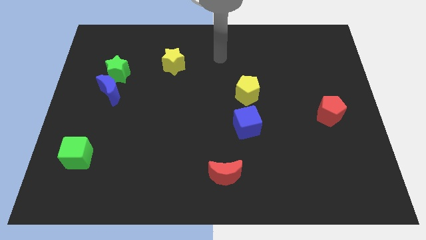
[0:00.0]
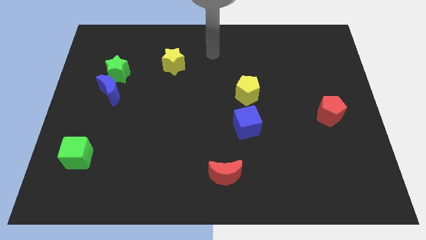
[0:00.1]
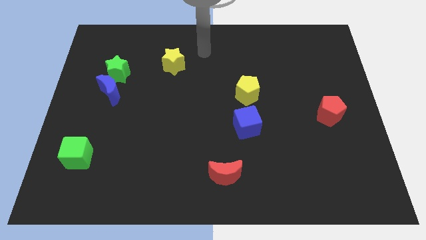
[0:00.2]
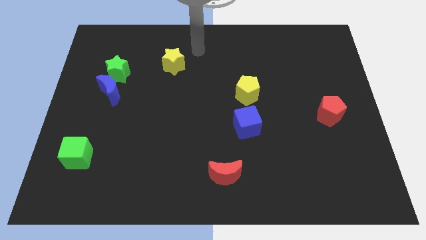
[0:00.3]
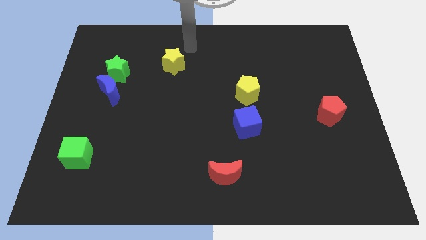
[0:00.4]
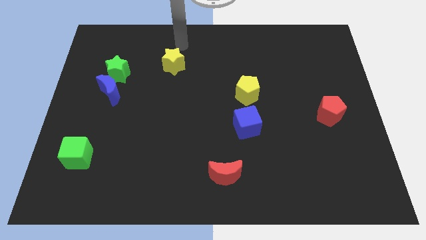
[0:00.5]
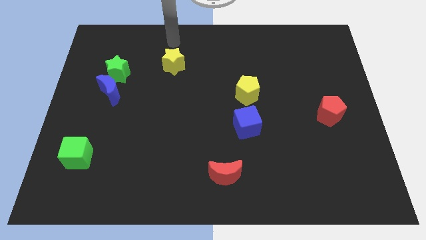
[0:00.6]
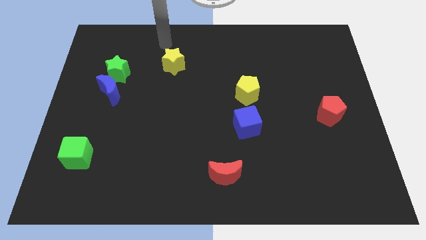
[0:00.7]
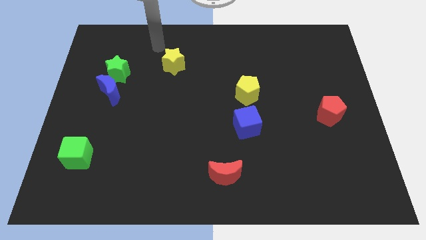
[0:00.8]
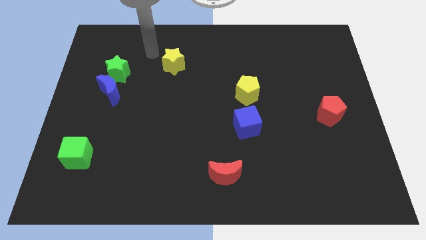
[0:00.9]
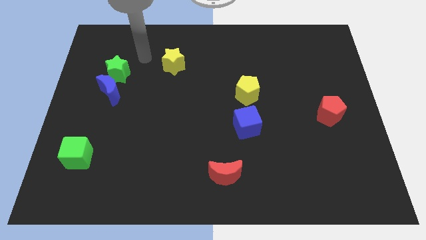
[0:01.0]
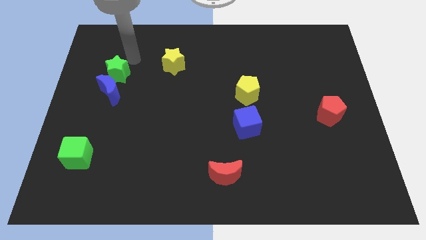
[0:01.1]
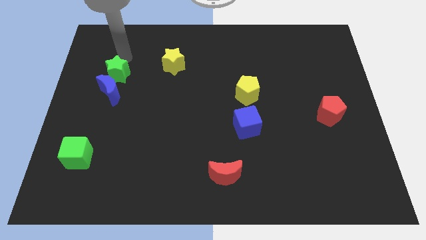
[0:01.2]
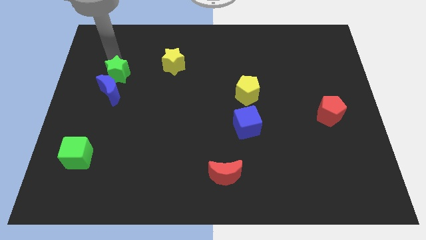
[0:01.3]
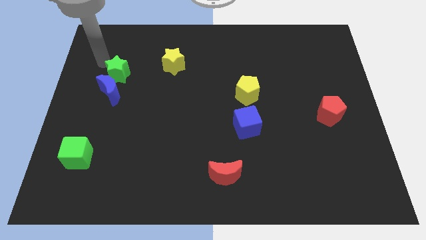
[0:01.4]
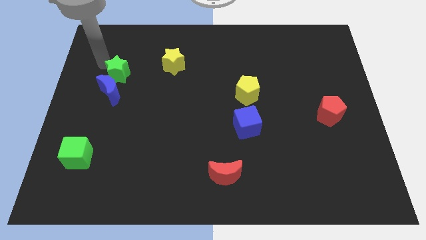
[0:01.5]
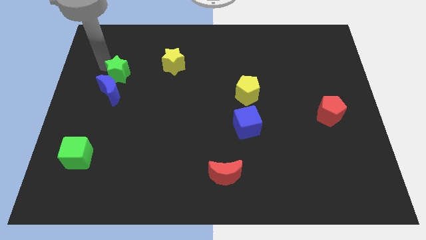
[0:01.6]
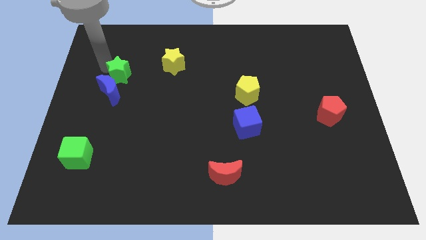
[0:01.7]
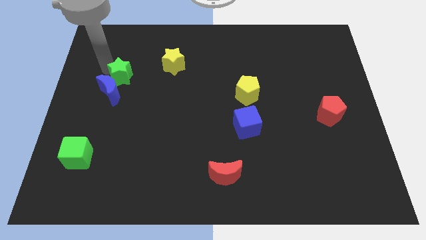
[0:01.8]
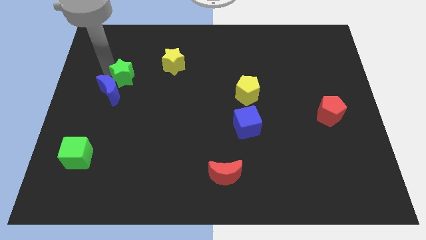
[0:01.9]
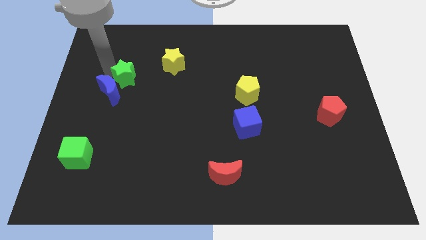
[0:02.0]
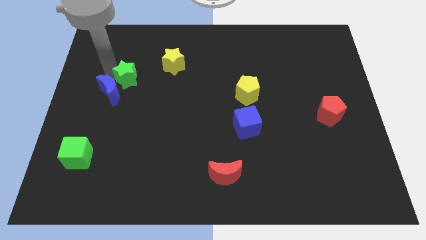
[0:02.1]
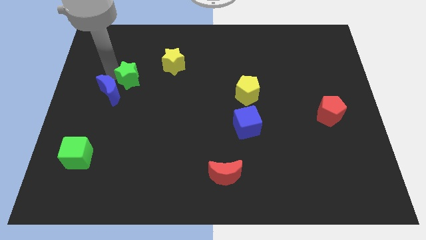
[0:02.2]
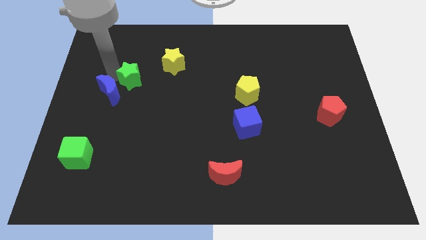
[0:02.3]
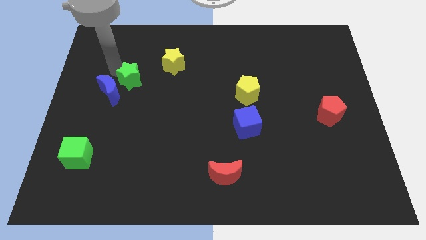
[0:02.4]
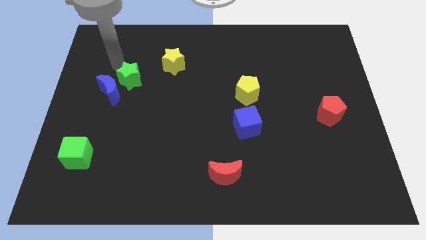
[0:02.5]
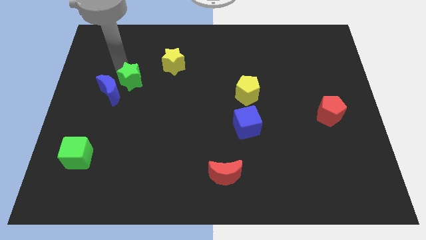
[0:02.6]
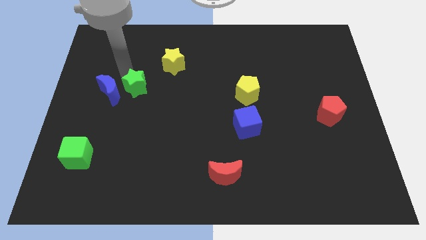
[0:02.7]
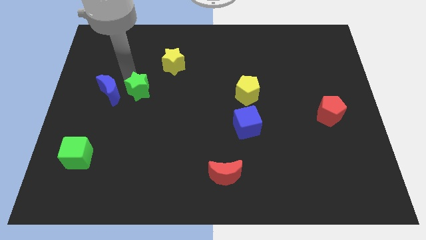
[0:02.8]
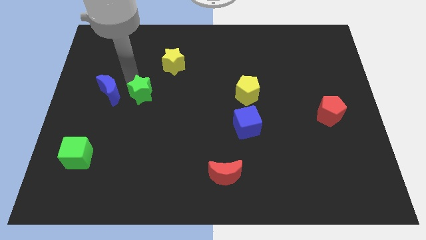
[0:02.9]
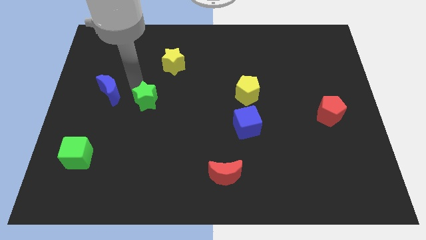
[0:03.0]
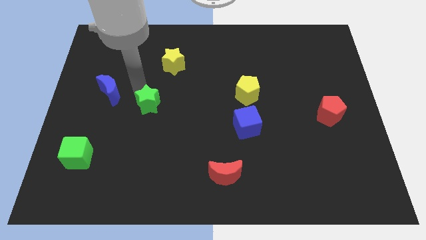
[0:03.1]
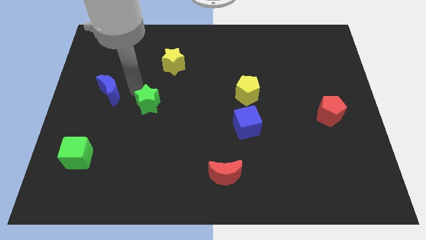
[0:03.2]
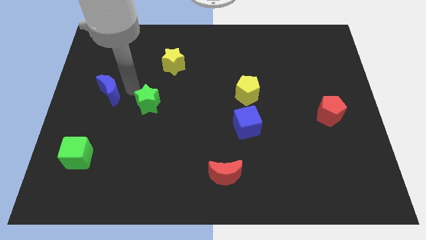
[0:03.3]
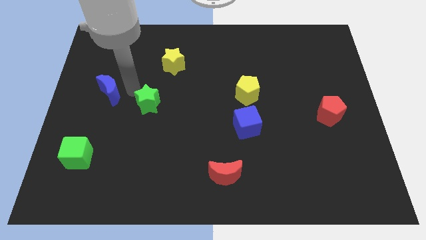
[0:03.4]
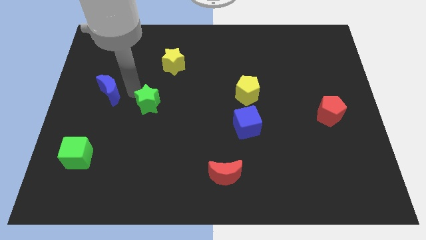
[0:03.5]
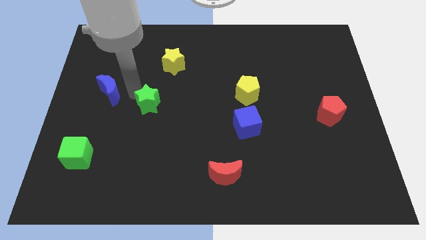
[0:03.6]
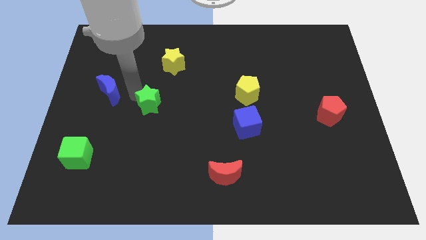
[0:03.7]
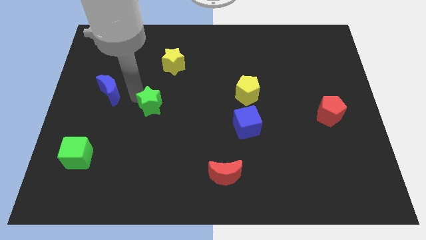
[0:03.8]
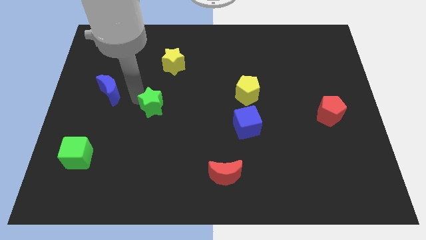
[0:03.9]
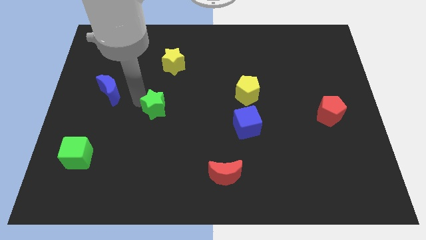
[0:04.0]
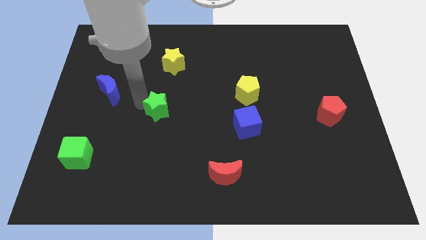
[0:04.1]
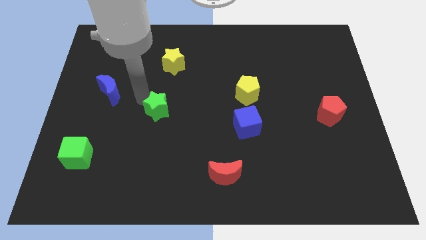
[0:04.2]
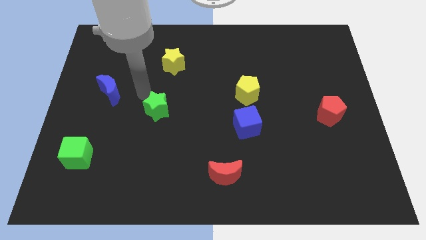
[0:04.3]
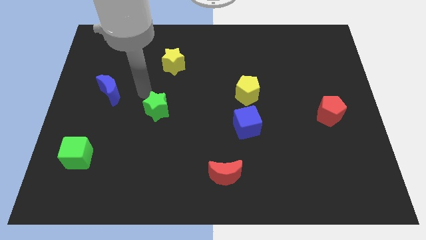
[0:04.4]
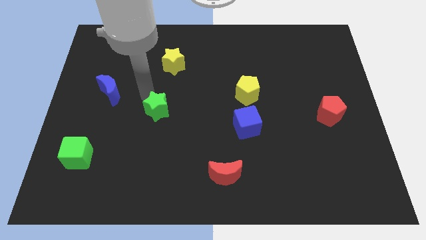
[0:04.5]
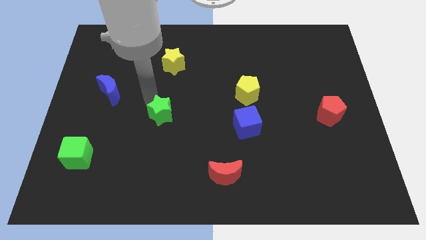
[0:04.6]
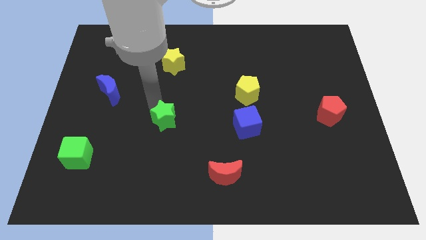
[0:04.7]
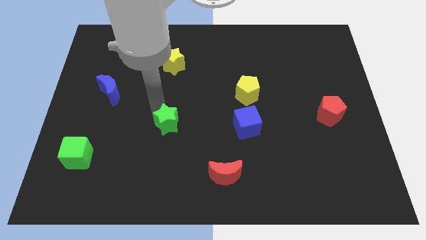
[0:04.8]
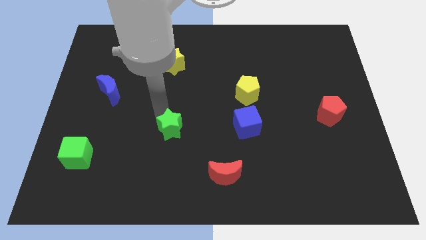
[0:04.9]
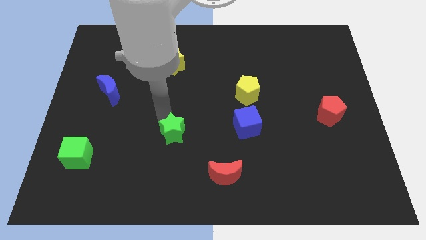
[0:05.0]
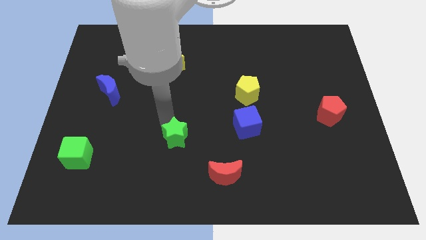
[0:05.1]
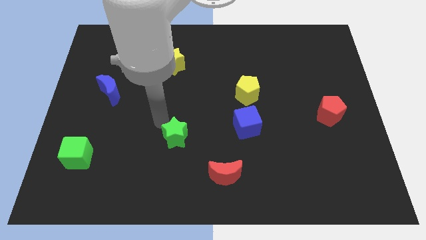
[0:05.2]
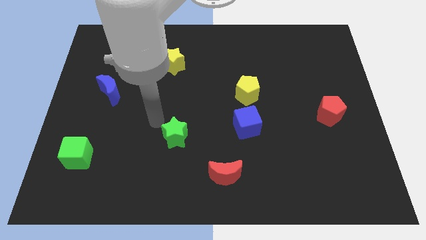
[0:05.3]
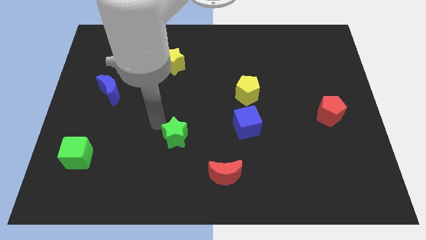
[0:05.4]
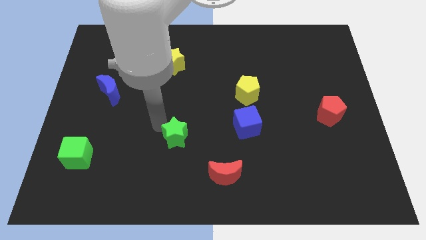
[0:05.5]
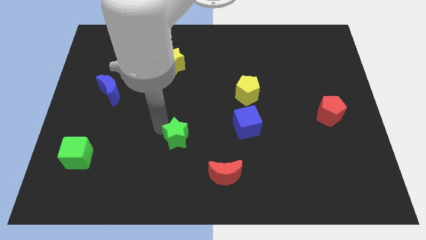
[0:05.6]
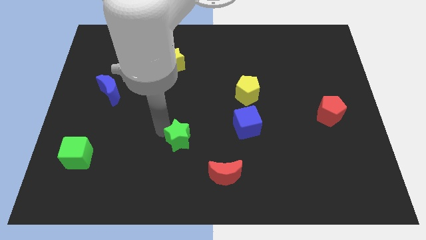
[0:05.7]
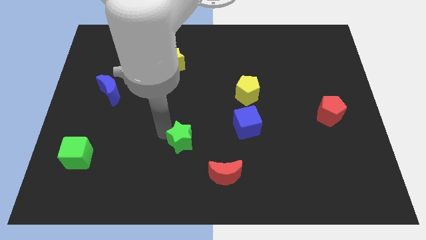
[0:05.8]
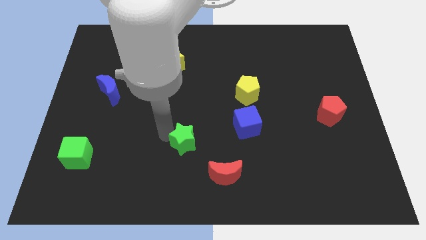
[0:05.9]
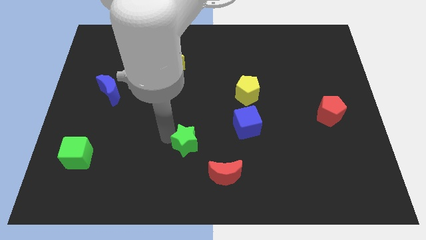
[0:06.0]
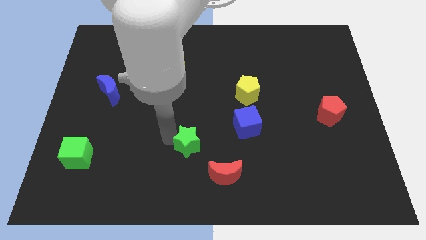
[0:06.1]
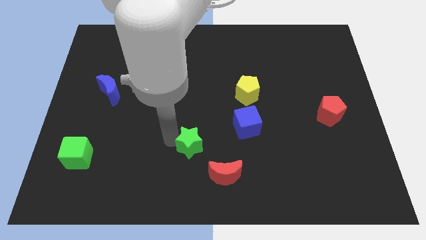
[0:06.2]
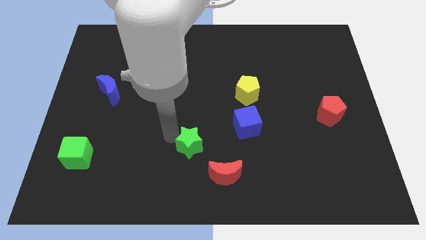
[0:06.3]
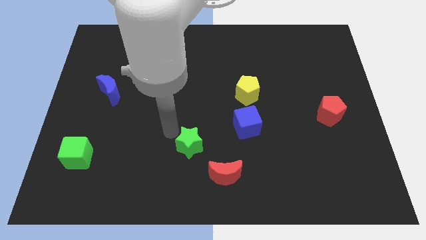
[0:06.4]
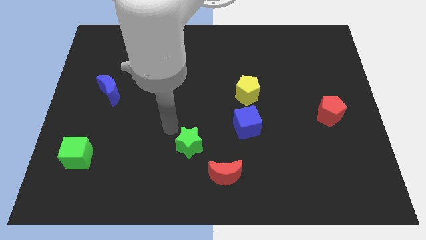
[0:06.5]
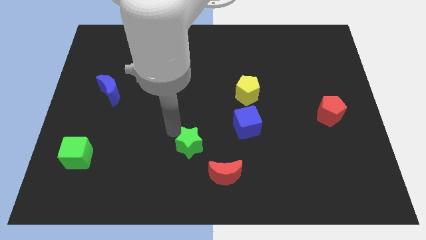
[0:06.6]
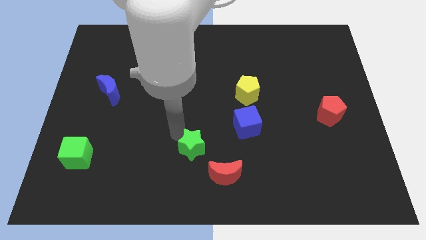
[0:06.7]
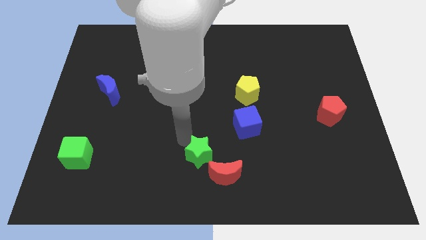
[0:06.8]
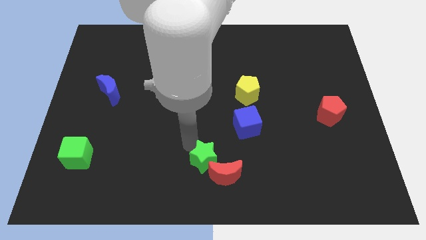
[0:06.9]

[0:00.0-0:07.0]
push the green star towards the red moon
